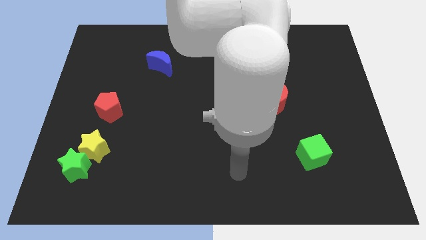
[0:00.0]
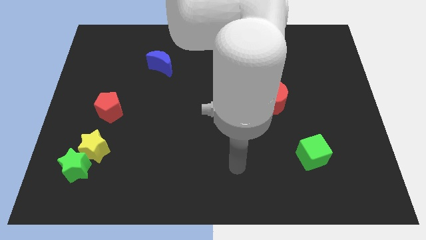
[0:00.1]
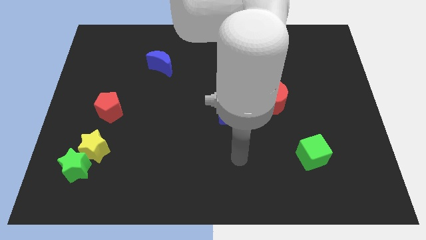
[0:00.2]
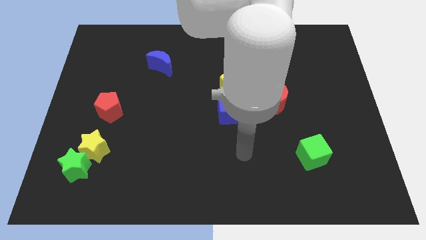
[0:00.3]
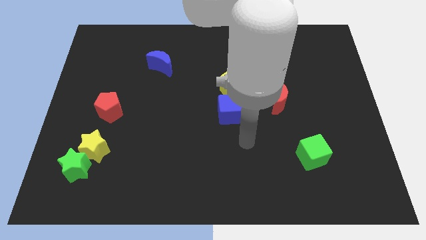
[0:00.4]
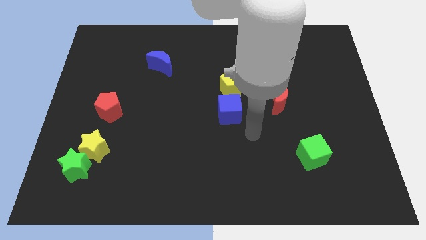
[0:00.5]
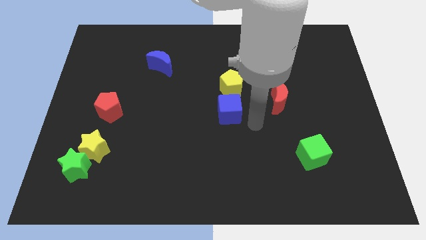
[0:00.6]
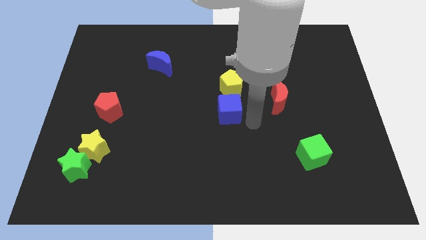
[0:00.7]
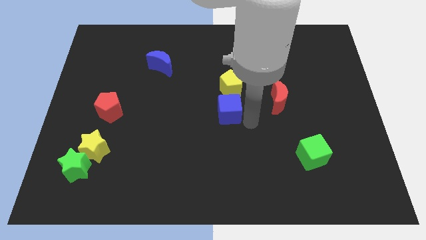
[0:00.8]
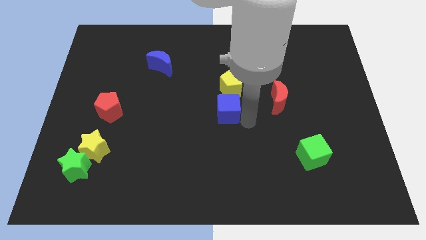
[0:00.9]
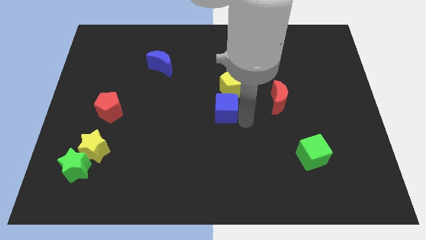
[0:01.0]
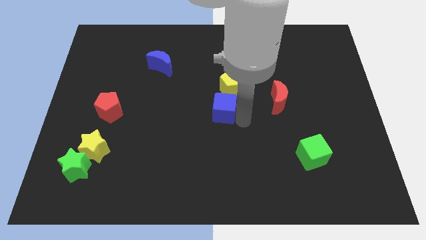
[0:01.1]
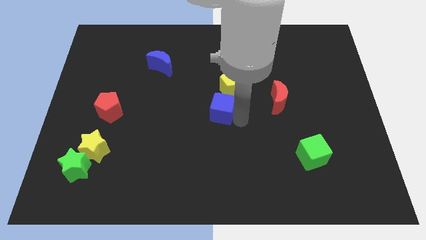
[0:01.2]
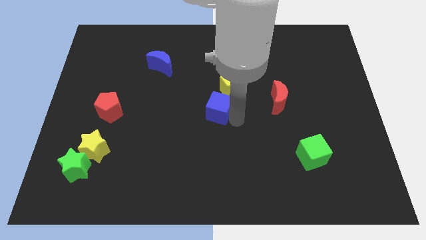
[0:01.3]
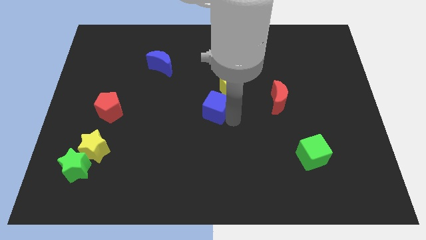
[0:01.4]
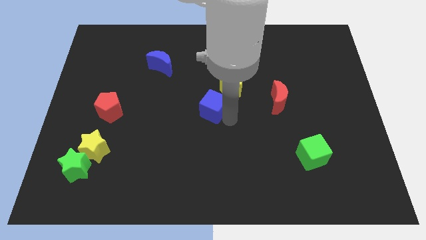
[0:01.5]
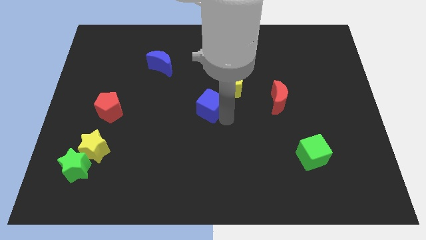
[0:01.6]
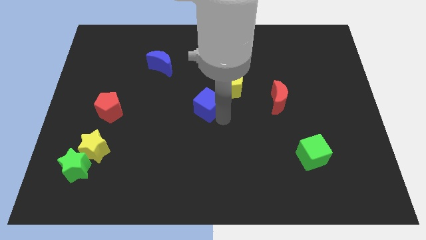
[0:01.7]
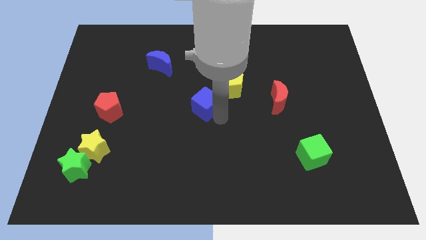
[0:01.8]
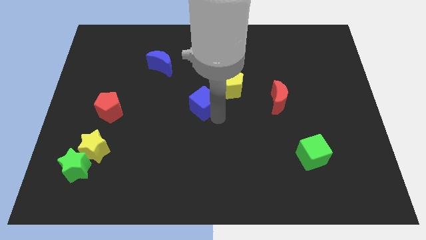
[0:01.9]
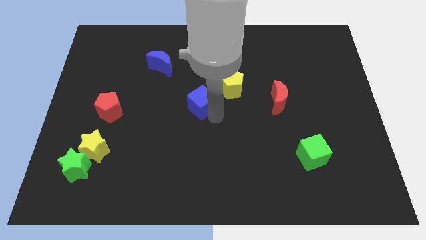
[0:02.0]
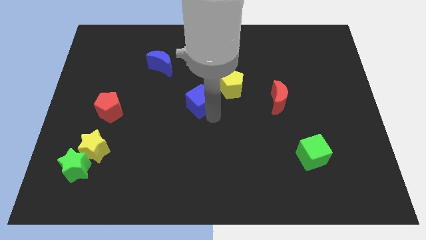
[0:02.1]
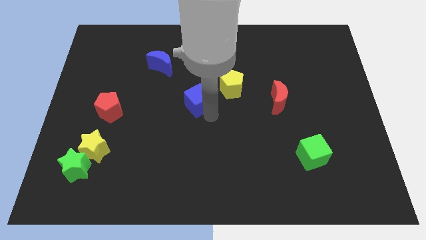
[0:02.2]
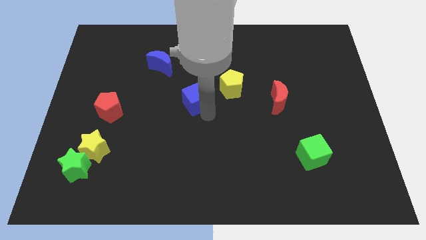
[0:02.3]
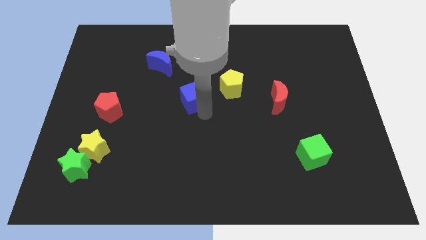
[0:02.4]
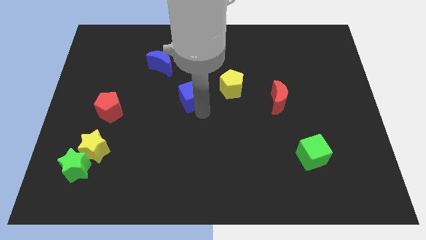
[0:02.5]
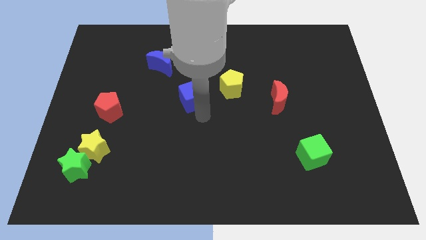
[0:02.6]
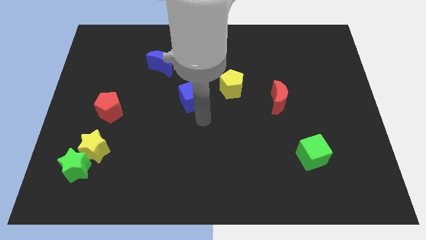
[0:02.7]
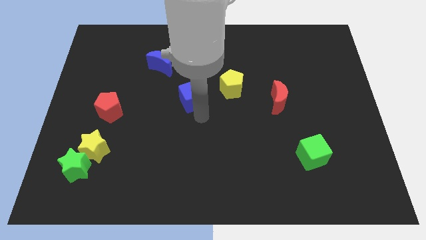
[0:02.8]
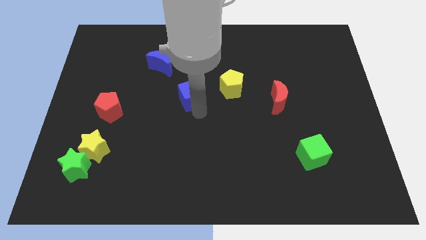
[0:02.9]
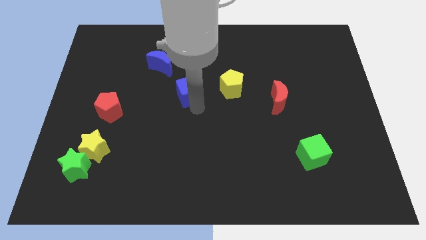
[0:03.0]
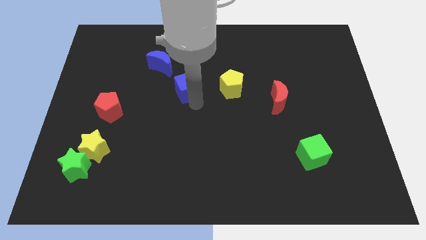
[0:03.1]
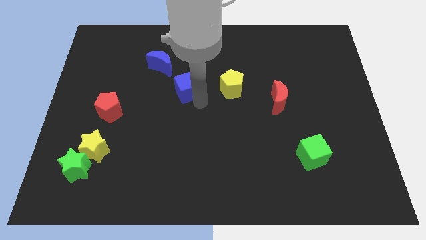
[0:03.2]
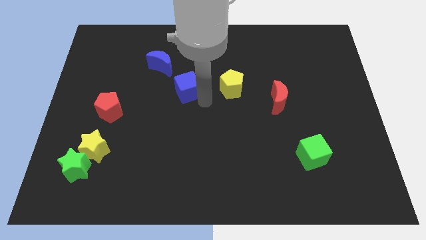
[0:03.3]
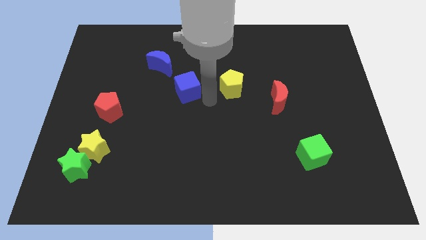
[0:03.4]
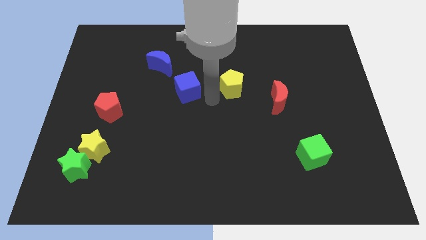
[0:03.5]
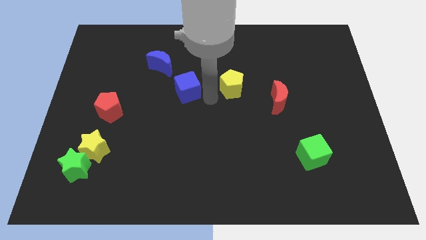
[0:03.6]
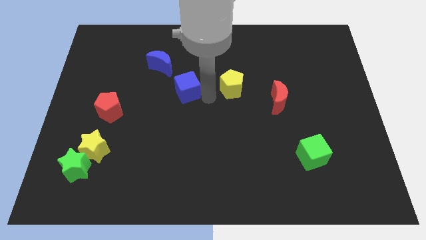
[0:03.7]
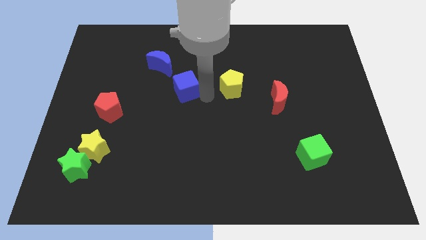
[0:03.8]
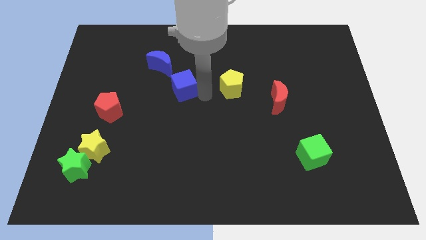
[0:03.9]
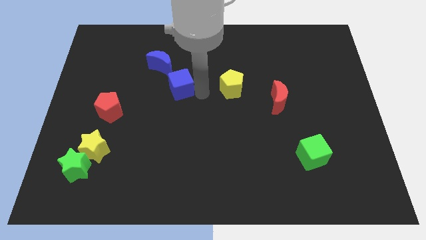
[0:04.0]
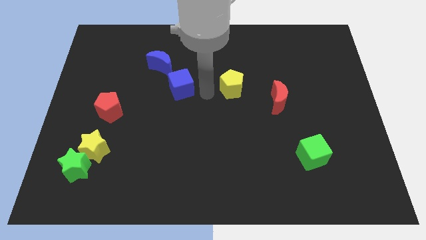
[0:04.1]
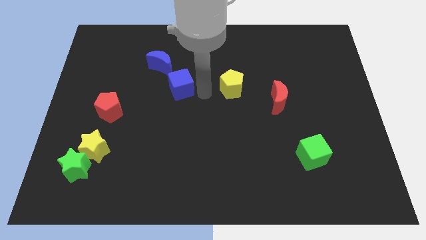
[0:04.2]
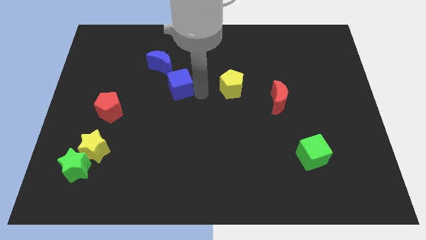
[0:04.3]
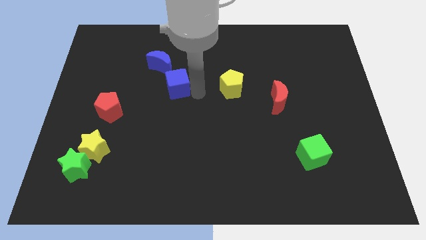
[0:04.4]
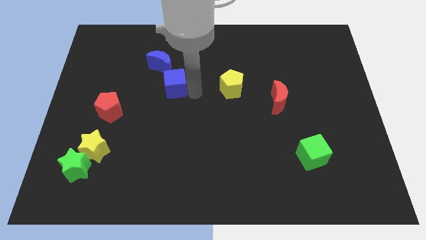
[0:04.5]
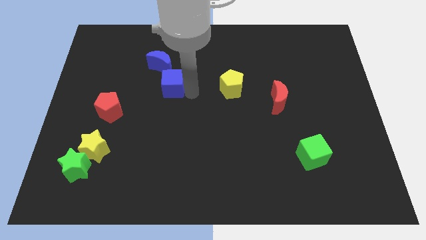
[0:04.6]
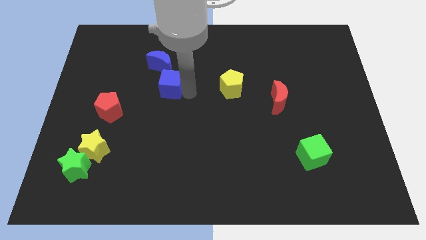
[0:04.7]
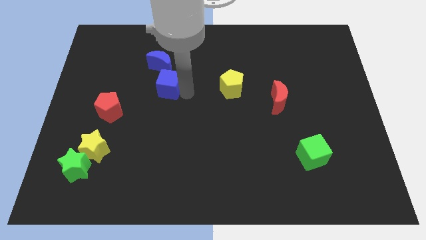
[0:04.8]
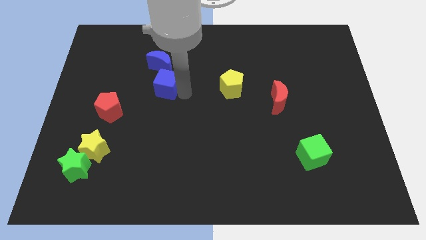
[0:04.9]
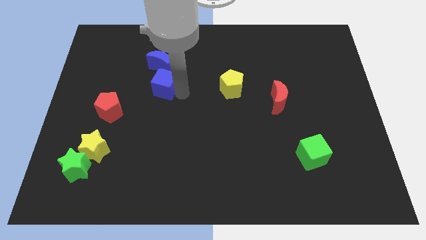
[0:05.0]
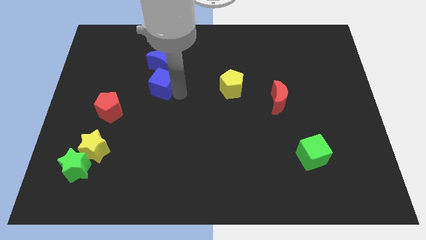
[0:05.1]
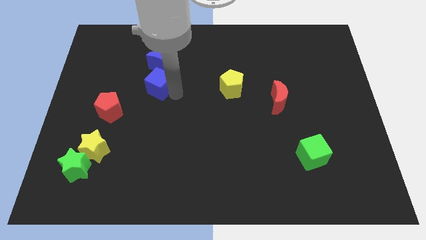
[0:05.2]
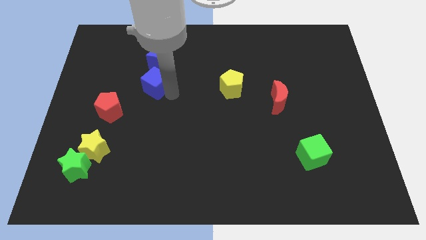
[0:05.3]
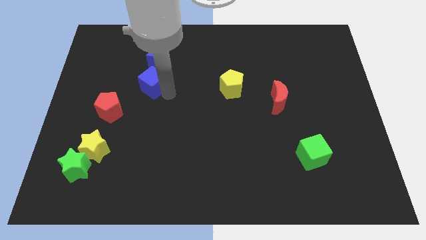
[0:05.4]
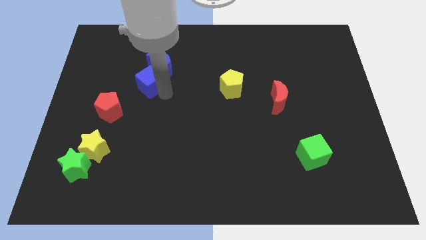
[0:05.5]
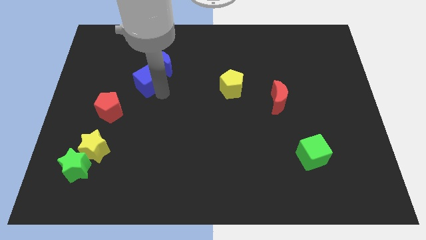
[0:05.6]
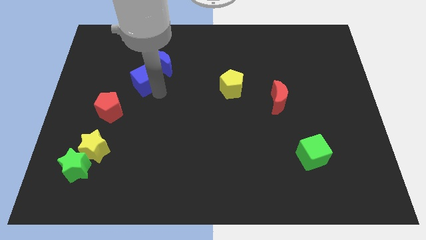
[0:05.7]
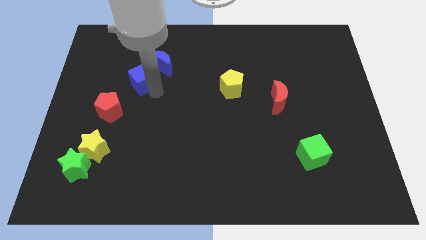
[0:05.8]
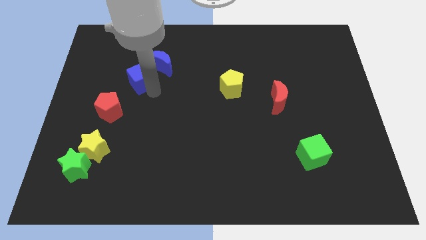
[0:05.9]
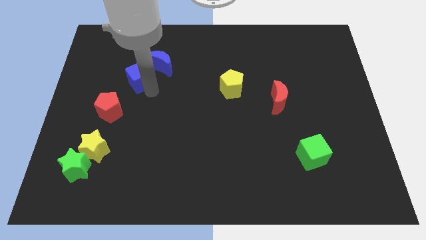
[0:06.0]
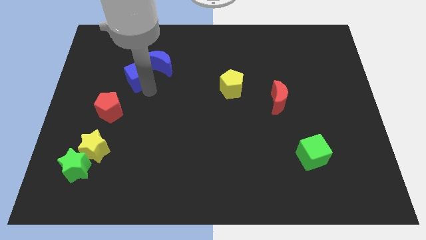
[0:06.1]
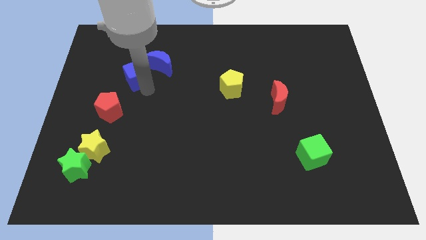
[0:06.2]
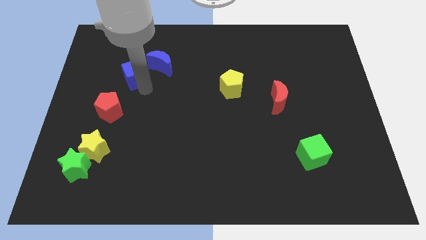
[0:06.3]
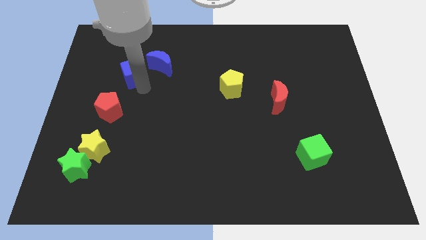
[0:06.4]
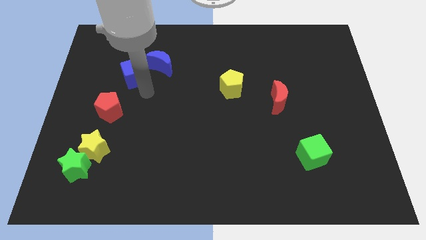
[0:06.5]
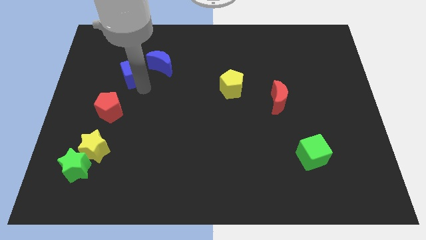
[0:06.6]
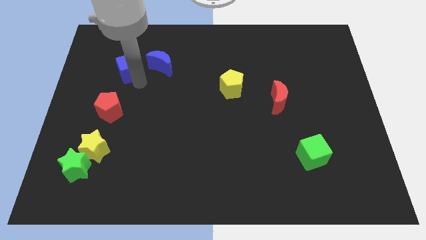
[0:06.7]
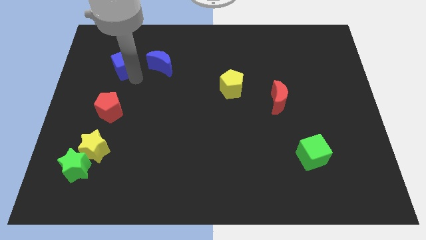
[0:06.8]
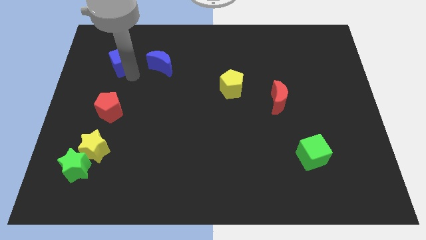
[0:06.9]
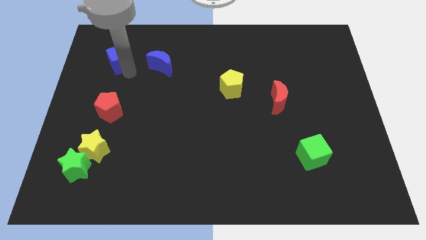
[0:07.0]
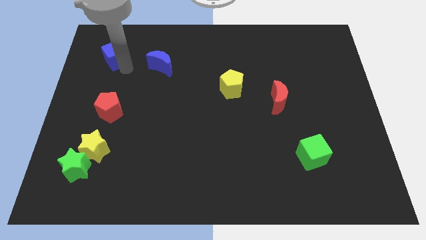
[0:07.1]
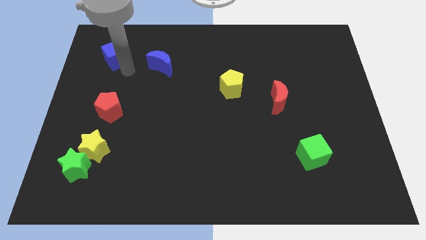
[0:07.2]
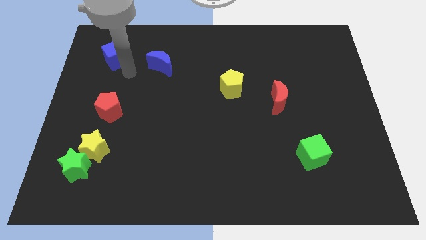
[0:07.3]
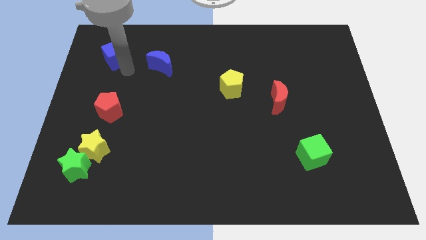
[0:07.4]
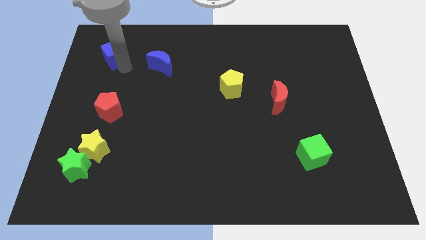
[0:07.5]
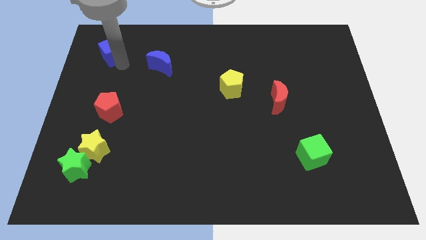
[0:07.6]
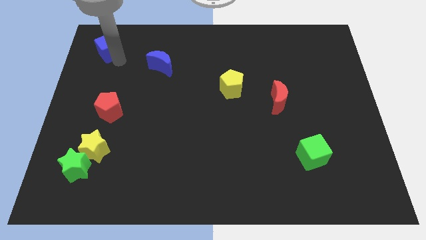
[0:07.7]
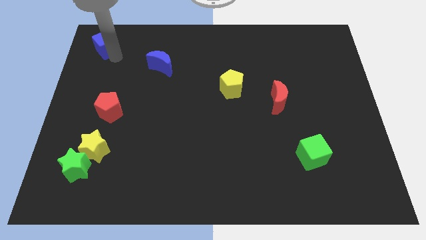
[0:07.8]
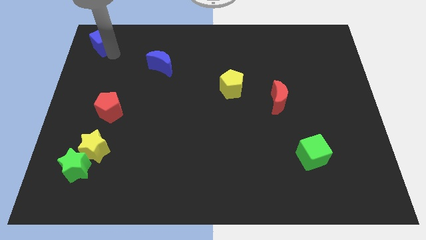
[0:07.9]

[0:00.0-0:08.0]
push the blue cube to the top left
